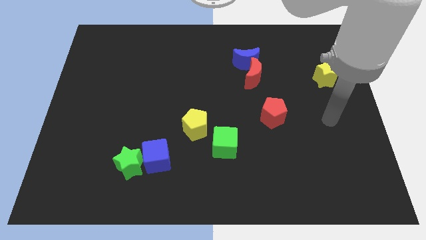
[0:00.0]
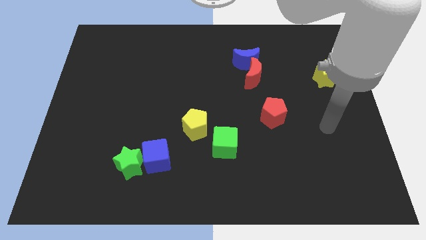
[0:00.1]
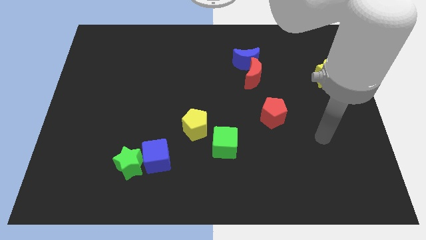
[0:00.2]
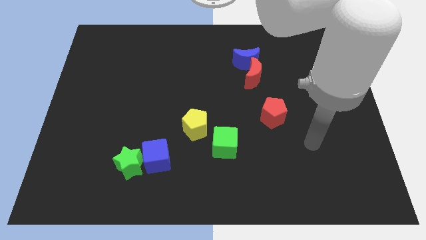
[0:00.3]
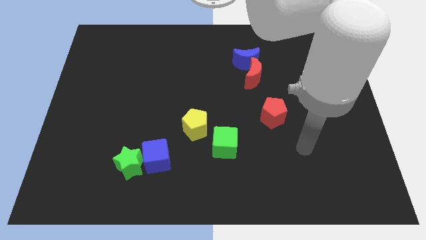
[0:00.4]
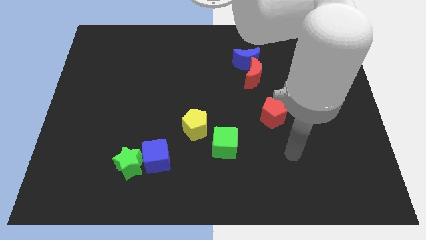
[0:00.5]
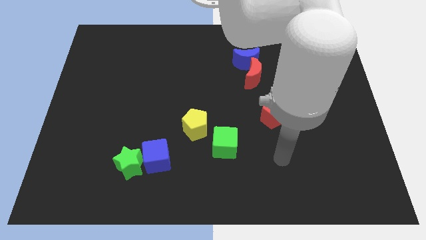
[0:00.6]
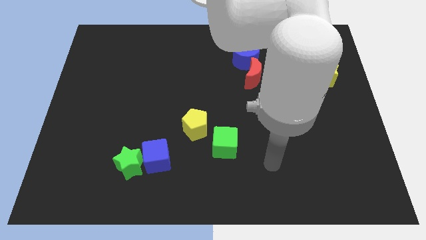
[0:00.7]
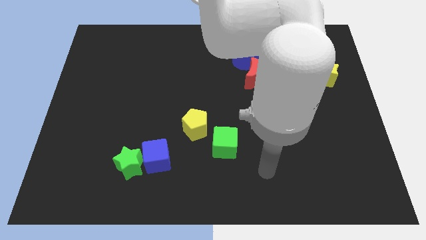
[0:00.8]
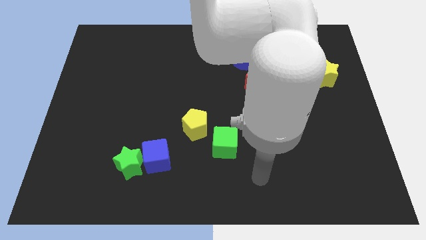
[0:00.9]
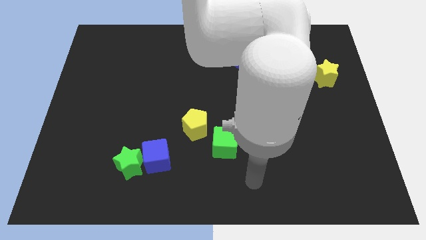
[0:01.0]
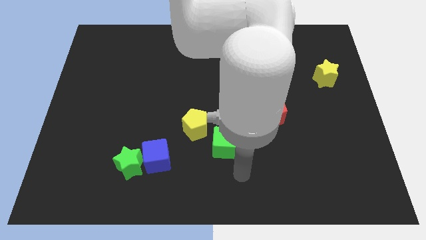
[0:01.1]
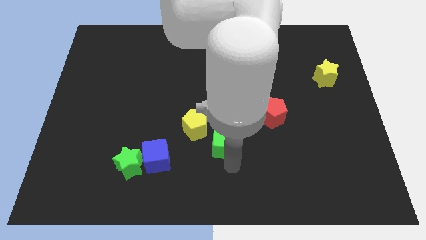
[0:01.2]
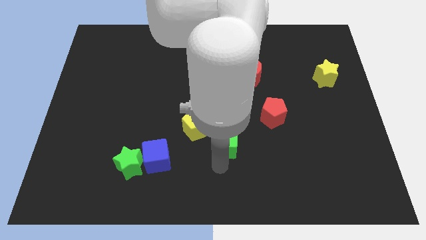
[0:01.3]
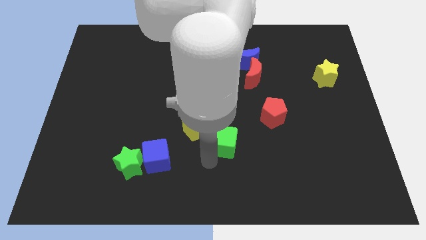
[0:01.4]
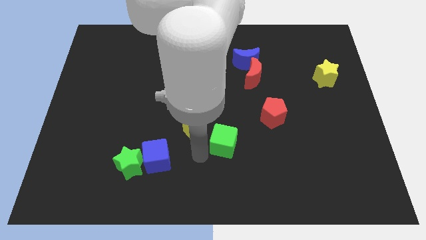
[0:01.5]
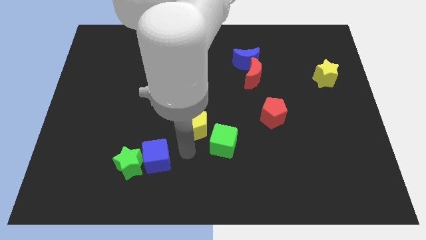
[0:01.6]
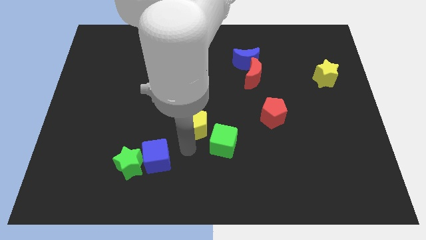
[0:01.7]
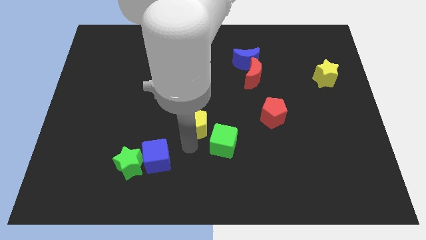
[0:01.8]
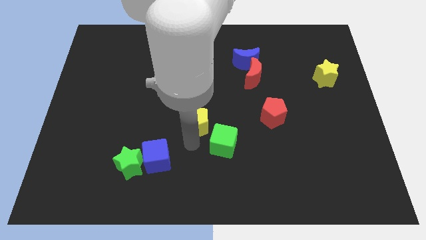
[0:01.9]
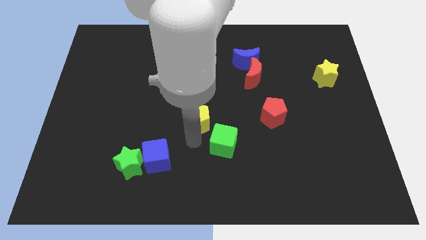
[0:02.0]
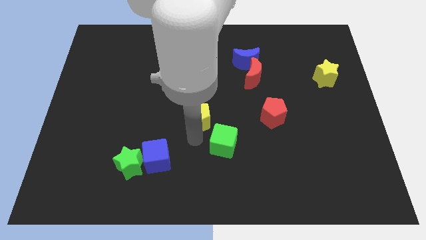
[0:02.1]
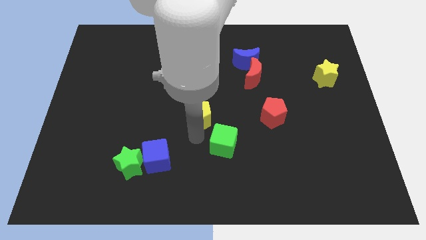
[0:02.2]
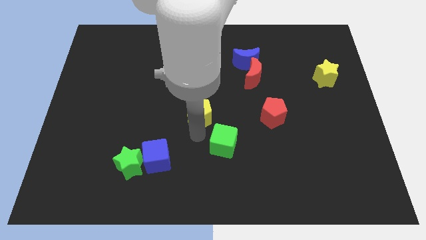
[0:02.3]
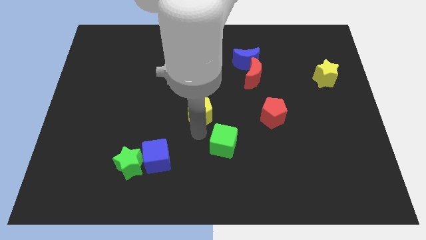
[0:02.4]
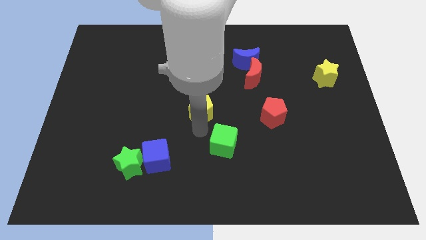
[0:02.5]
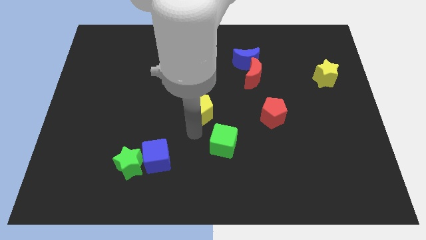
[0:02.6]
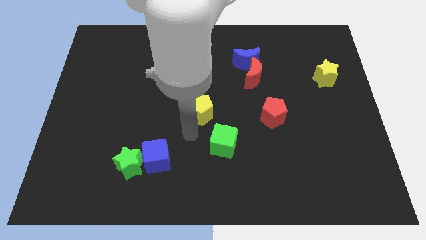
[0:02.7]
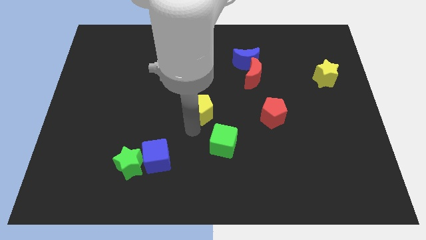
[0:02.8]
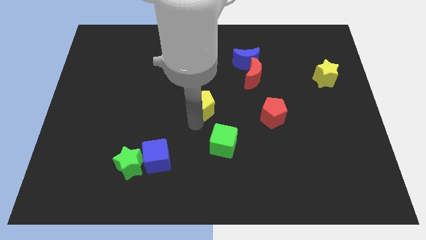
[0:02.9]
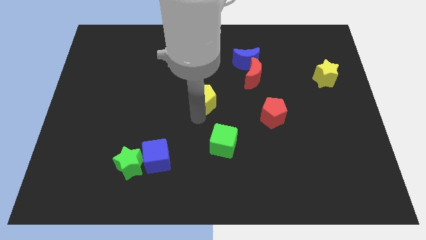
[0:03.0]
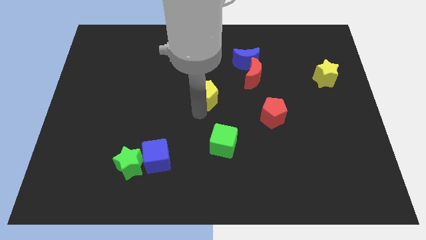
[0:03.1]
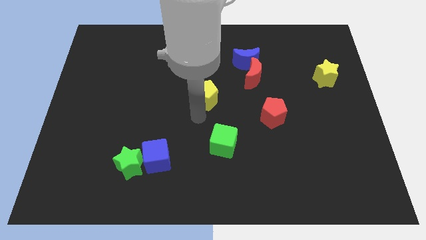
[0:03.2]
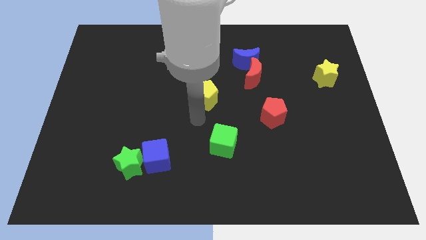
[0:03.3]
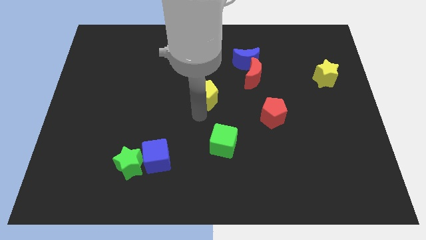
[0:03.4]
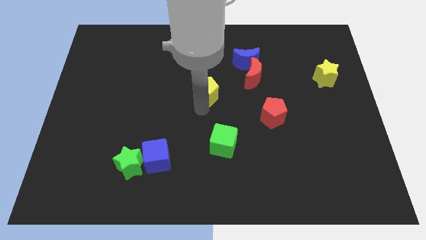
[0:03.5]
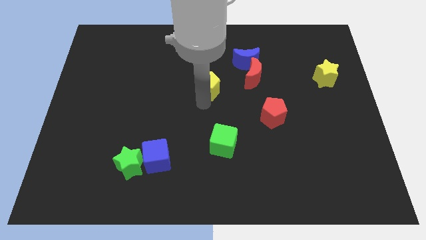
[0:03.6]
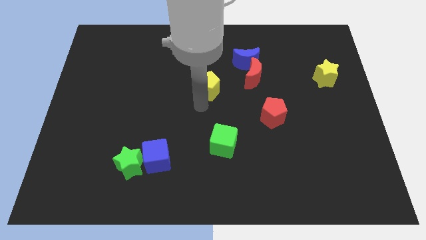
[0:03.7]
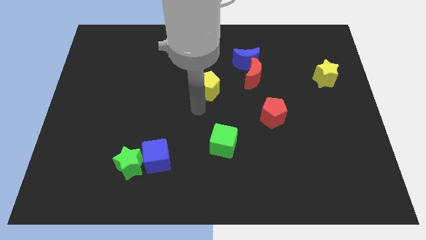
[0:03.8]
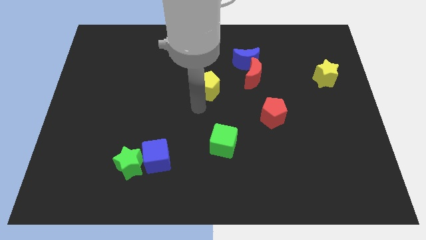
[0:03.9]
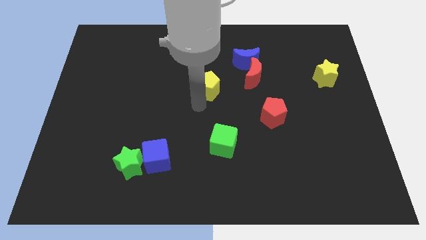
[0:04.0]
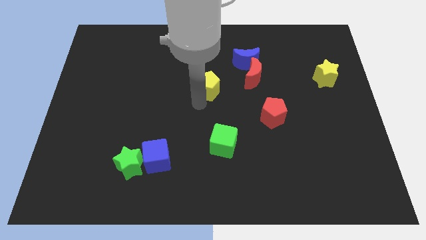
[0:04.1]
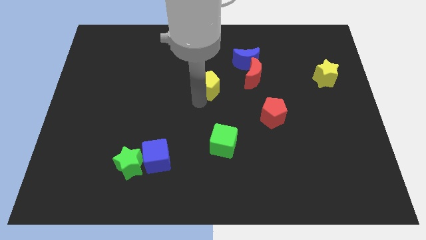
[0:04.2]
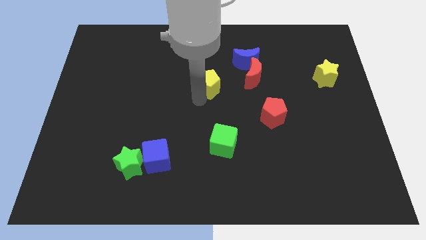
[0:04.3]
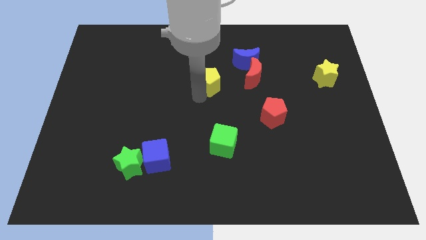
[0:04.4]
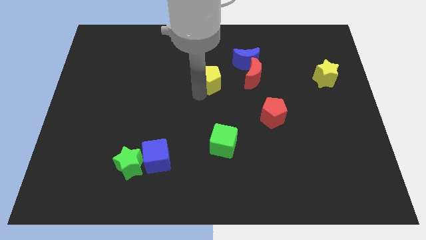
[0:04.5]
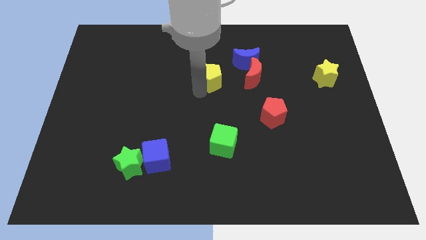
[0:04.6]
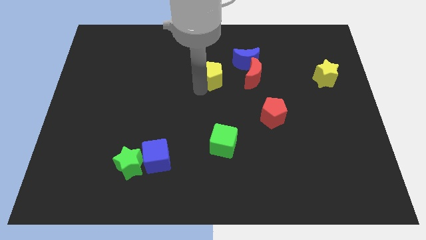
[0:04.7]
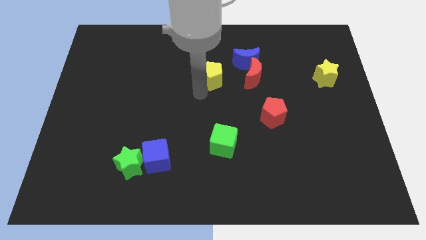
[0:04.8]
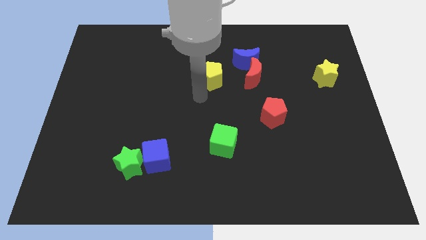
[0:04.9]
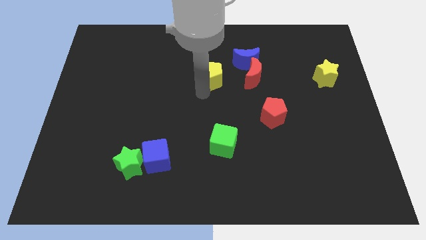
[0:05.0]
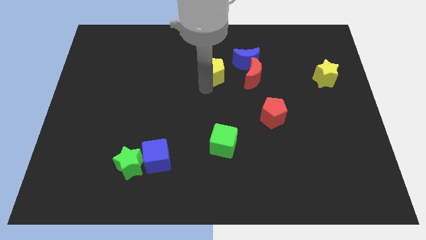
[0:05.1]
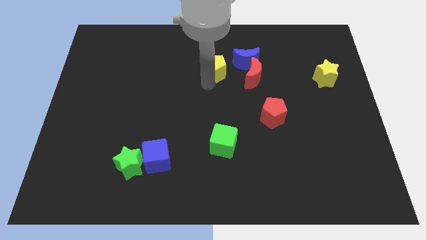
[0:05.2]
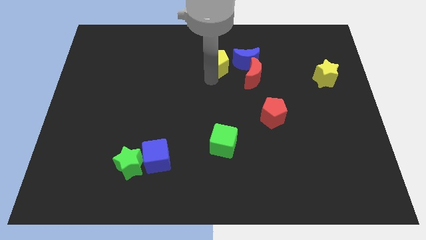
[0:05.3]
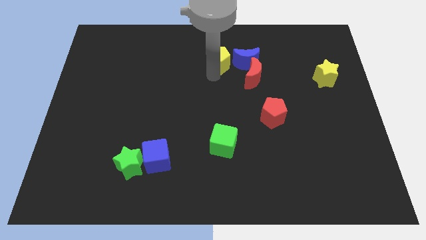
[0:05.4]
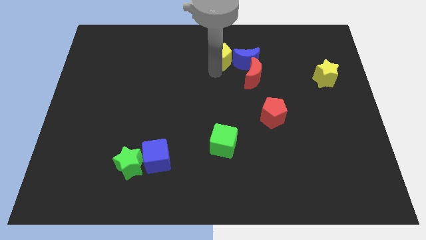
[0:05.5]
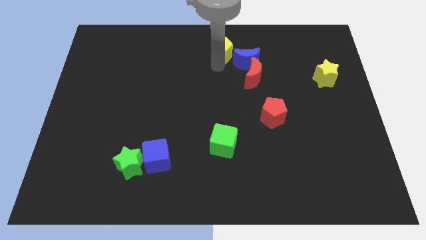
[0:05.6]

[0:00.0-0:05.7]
move the yellow pentagon to the top

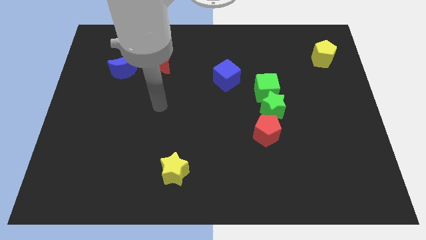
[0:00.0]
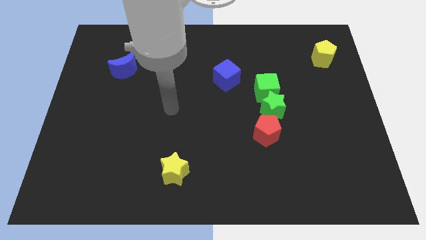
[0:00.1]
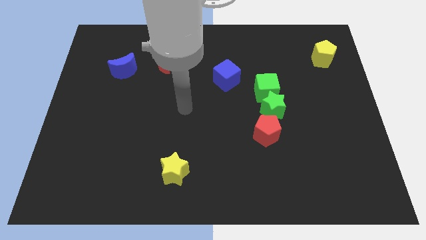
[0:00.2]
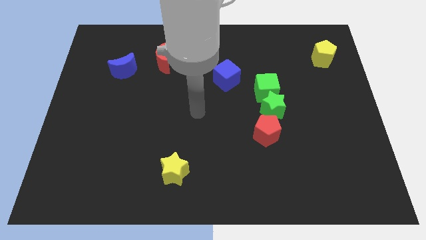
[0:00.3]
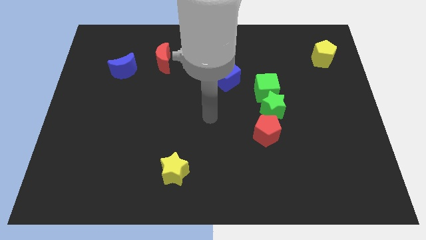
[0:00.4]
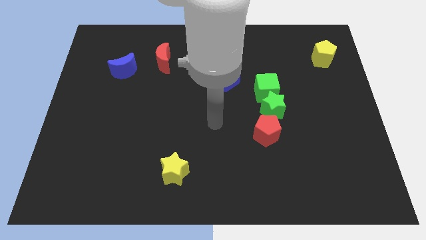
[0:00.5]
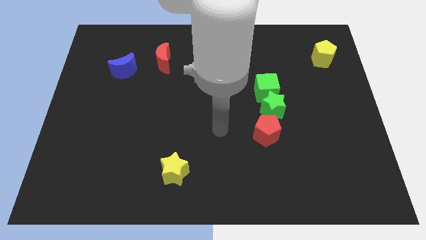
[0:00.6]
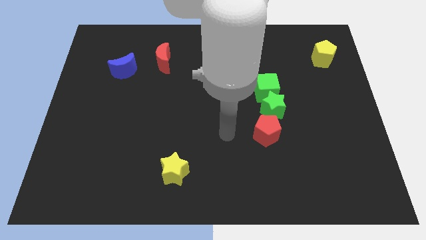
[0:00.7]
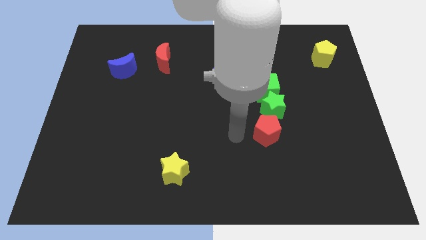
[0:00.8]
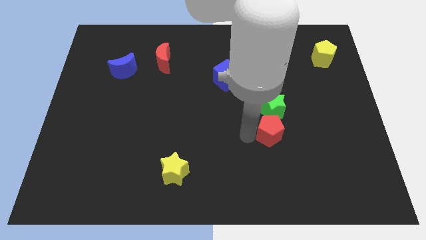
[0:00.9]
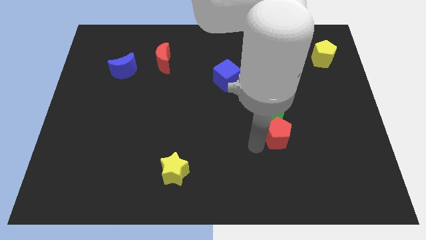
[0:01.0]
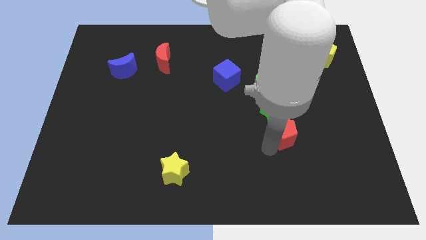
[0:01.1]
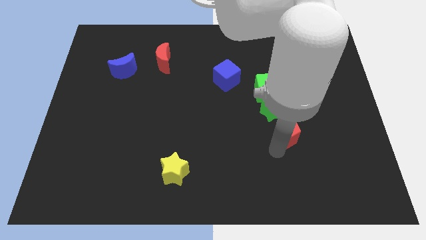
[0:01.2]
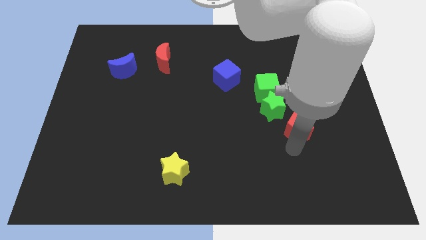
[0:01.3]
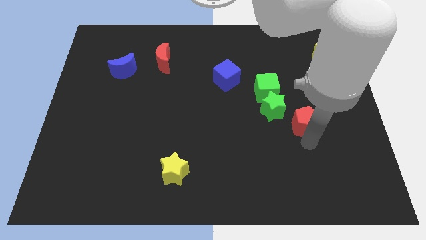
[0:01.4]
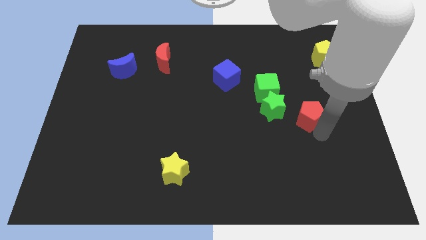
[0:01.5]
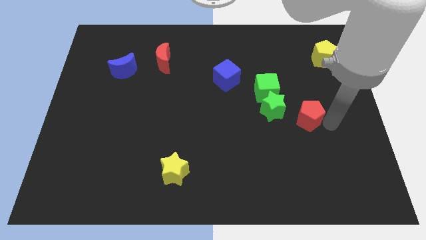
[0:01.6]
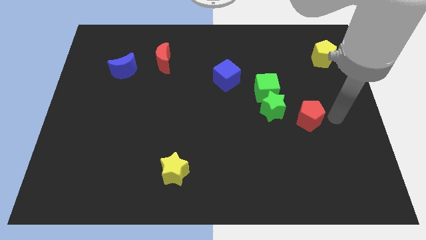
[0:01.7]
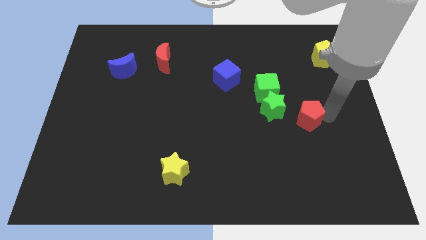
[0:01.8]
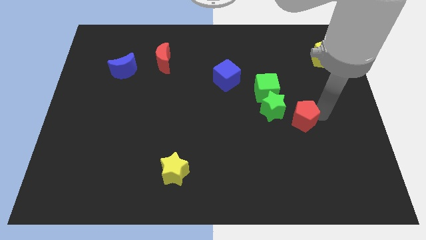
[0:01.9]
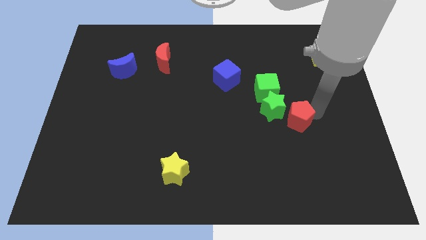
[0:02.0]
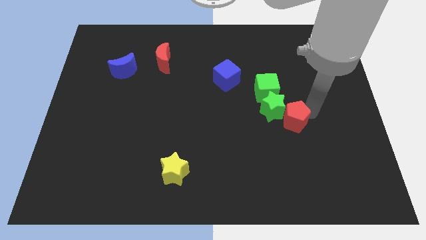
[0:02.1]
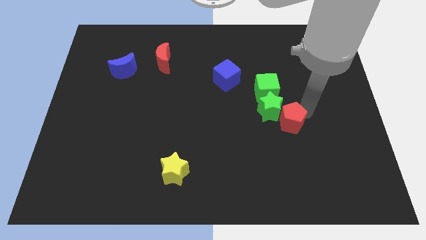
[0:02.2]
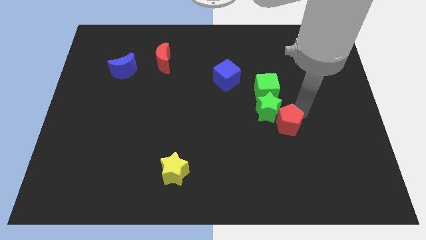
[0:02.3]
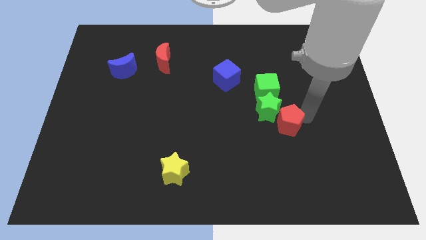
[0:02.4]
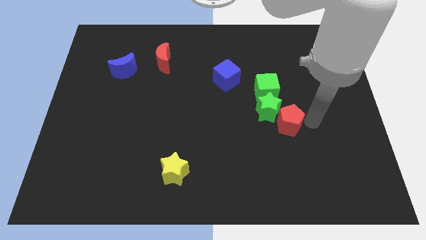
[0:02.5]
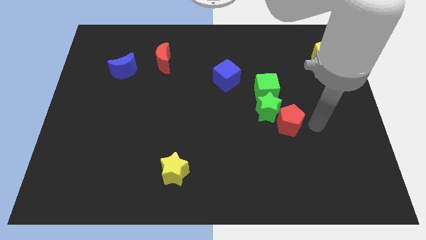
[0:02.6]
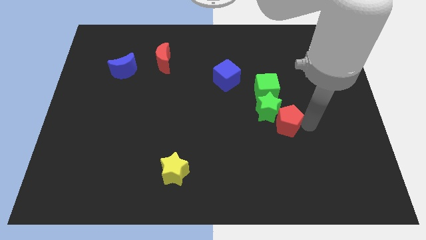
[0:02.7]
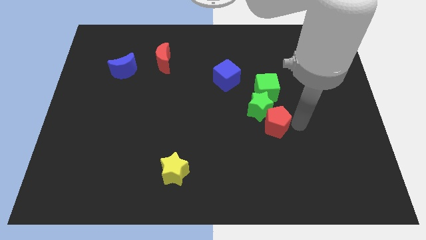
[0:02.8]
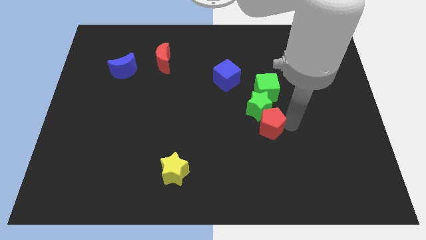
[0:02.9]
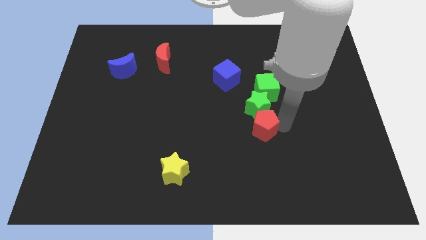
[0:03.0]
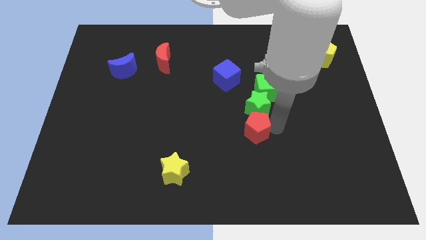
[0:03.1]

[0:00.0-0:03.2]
move the red pentagon to the center of the board
